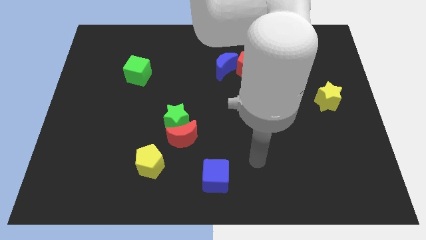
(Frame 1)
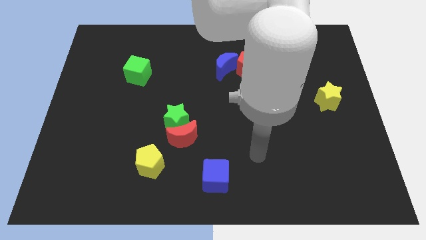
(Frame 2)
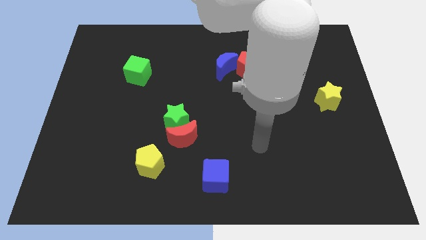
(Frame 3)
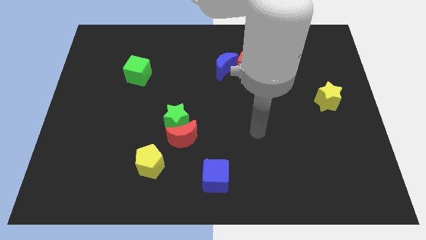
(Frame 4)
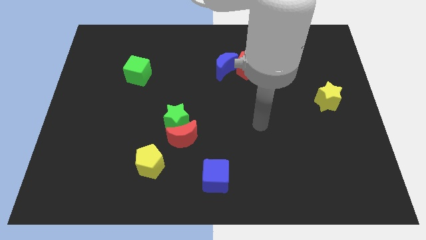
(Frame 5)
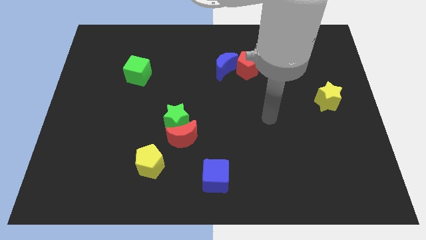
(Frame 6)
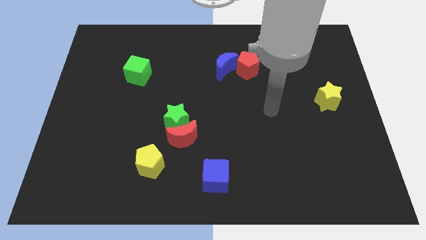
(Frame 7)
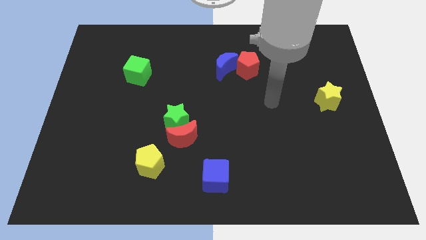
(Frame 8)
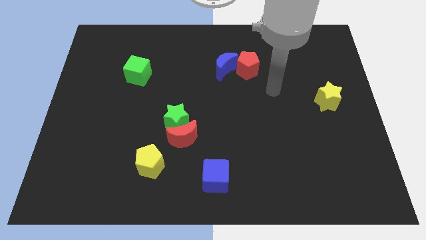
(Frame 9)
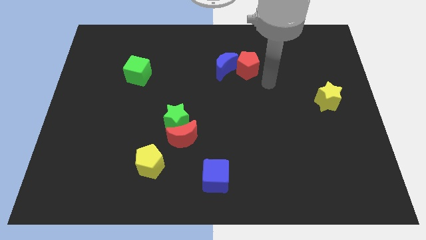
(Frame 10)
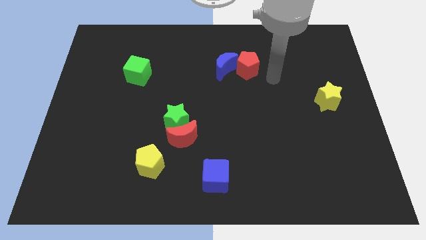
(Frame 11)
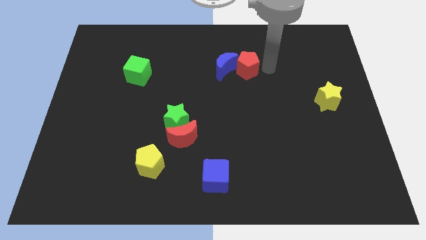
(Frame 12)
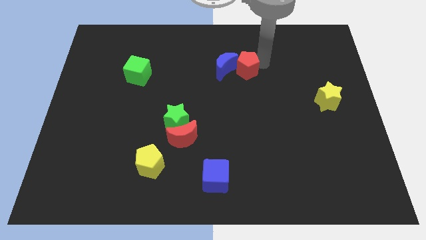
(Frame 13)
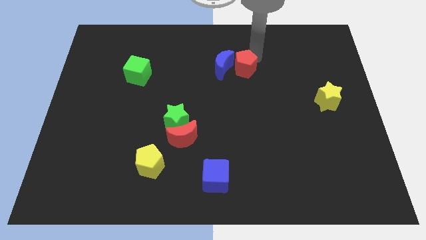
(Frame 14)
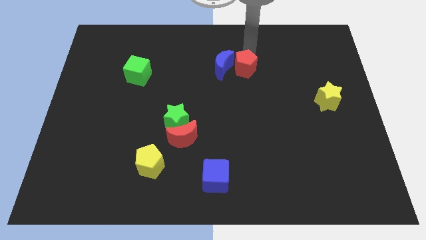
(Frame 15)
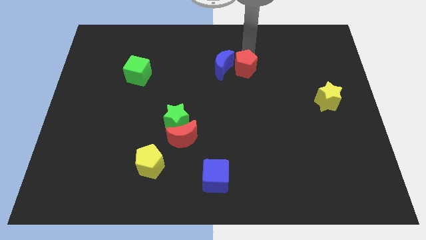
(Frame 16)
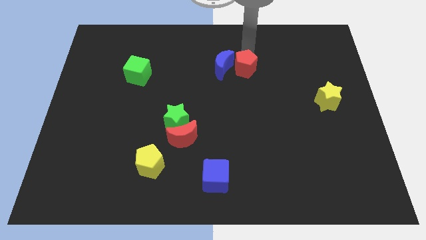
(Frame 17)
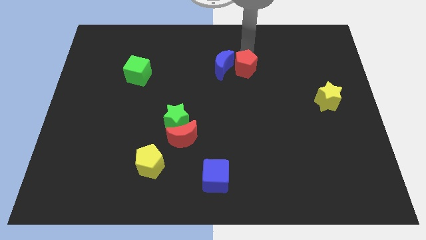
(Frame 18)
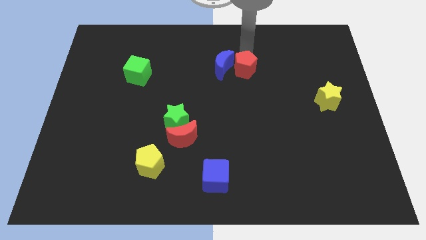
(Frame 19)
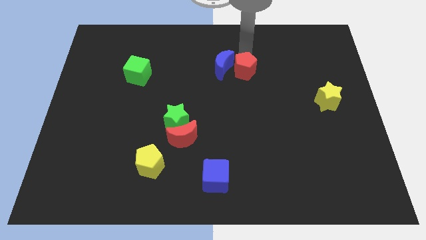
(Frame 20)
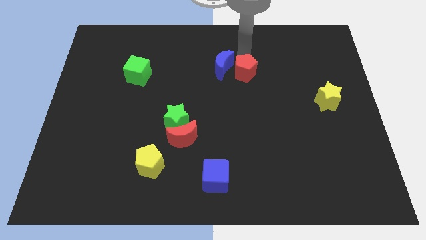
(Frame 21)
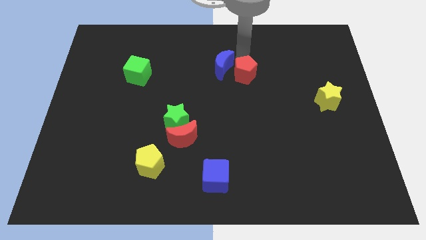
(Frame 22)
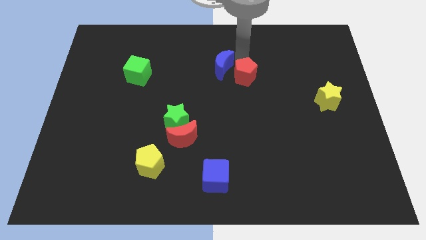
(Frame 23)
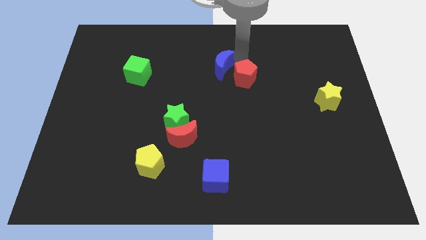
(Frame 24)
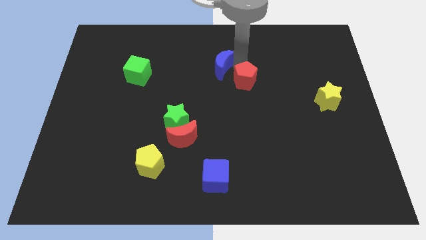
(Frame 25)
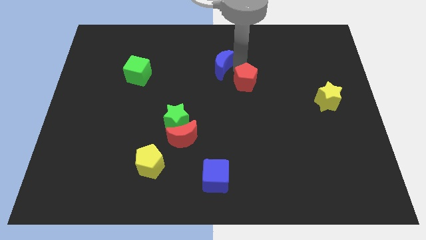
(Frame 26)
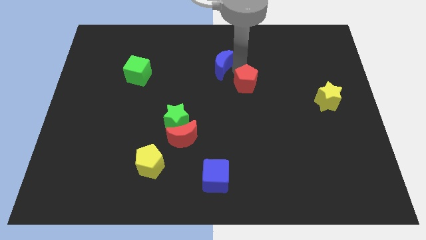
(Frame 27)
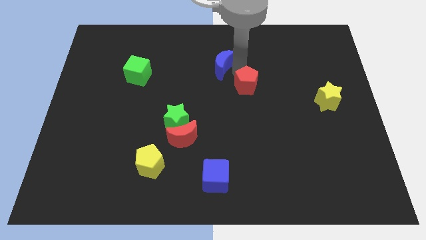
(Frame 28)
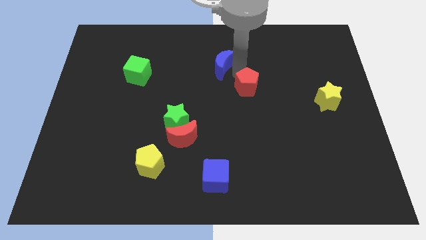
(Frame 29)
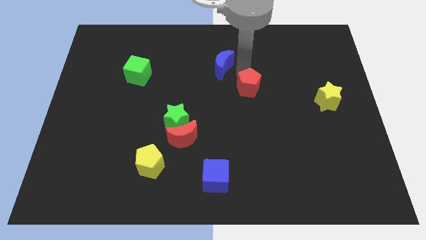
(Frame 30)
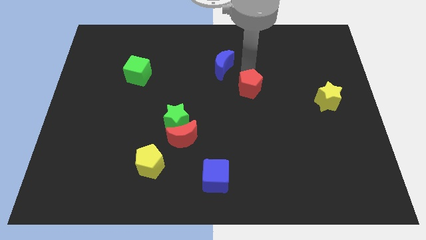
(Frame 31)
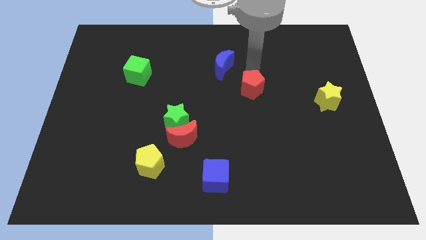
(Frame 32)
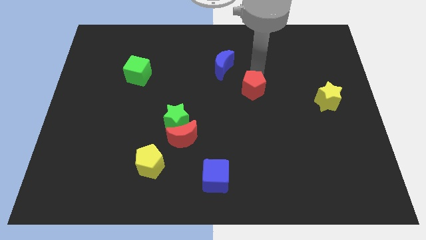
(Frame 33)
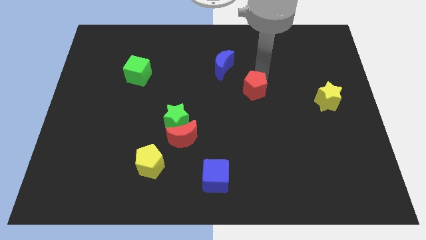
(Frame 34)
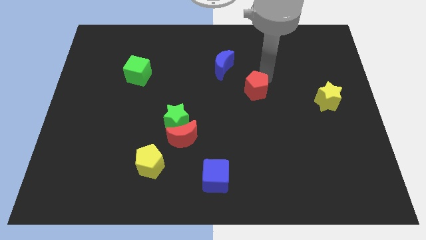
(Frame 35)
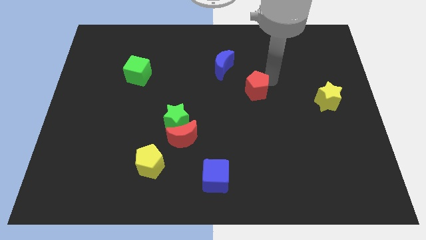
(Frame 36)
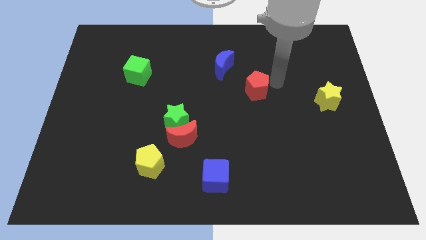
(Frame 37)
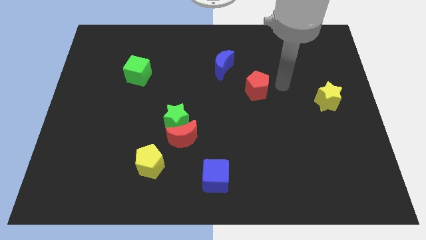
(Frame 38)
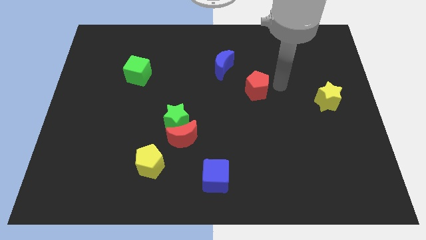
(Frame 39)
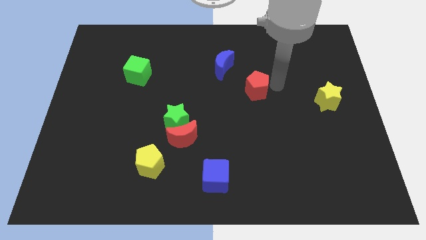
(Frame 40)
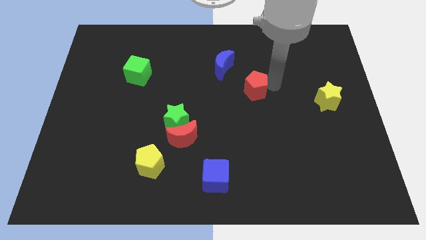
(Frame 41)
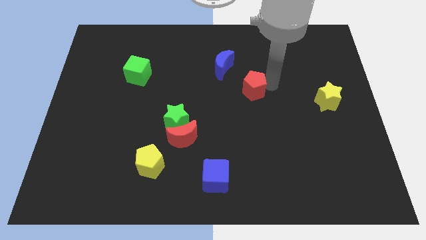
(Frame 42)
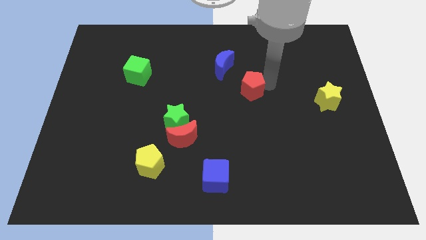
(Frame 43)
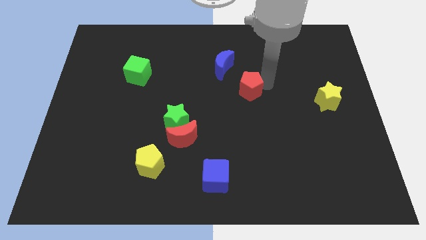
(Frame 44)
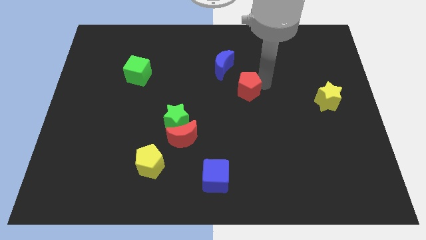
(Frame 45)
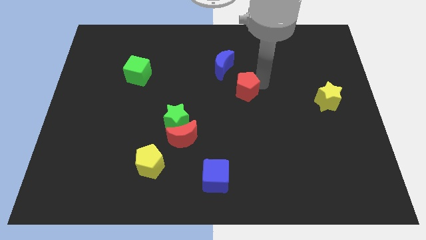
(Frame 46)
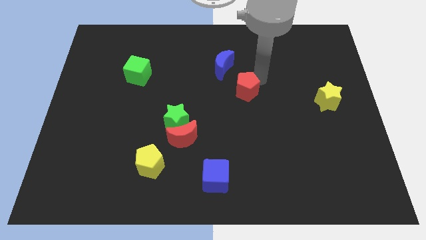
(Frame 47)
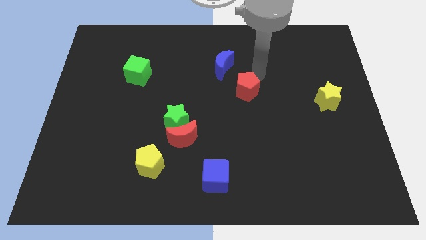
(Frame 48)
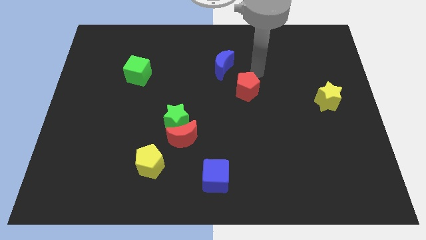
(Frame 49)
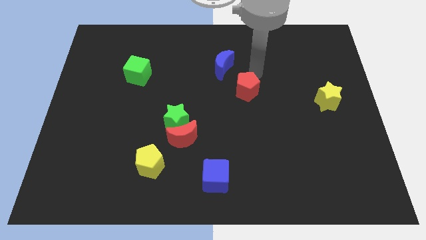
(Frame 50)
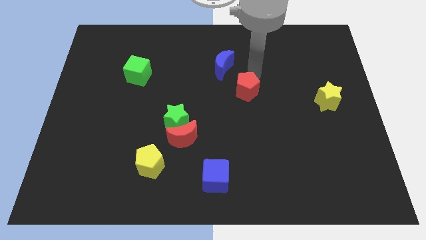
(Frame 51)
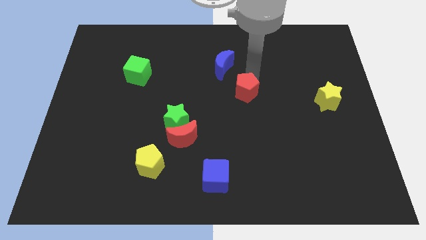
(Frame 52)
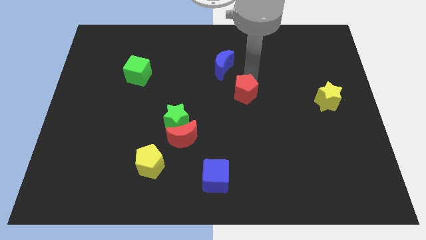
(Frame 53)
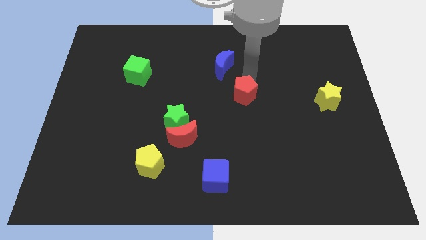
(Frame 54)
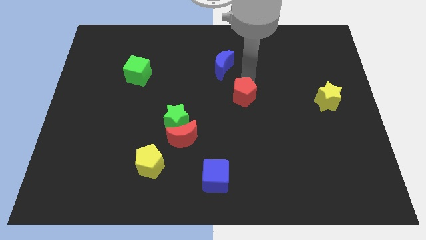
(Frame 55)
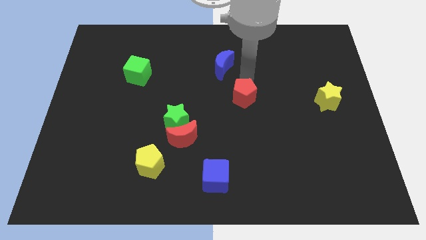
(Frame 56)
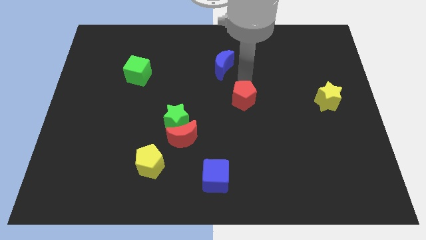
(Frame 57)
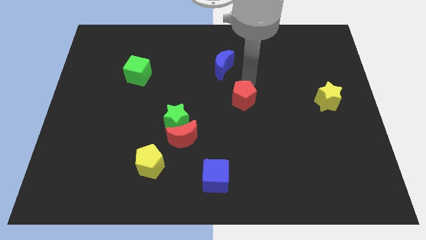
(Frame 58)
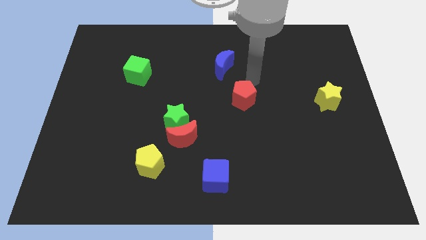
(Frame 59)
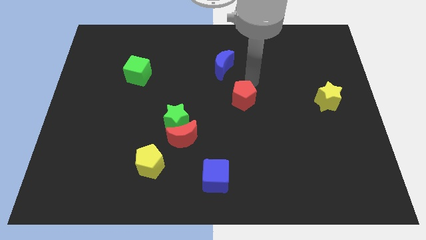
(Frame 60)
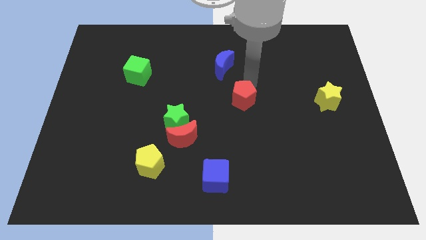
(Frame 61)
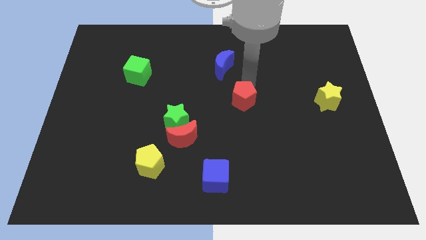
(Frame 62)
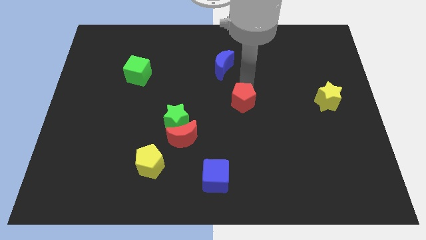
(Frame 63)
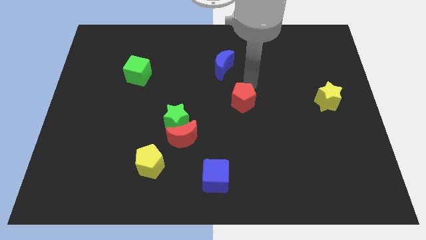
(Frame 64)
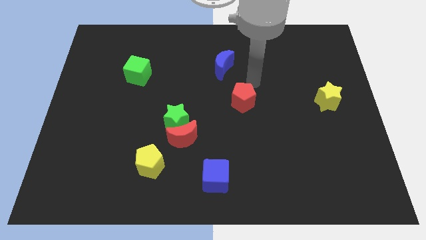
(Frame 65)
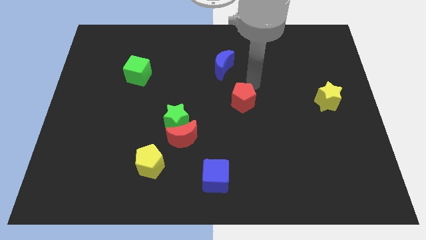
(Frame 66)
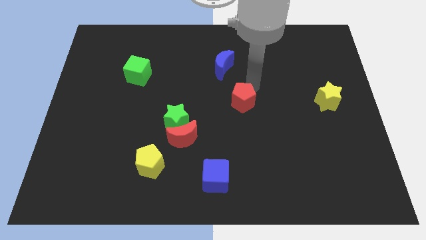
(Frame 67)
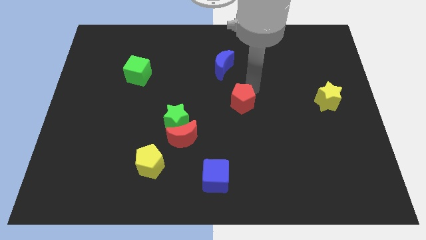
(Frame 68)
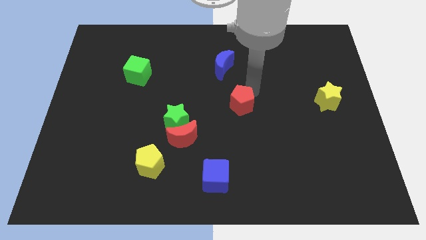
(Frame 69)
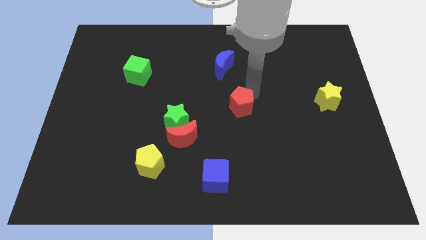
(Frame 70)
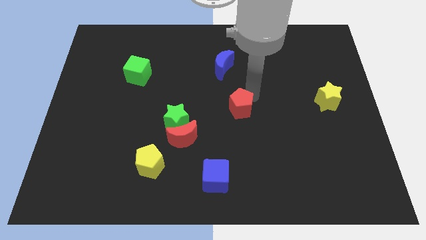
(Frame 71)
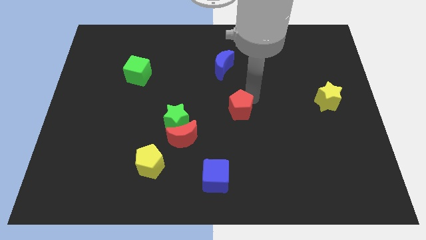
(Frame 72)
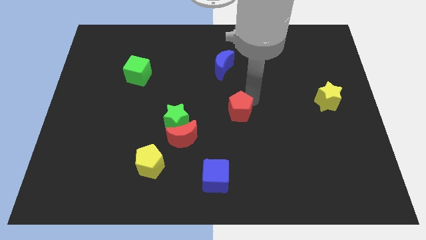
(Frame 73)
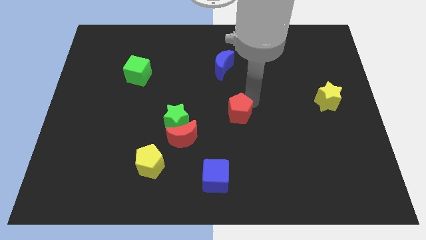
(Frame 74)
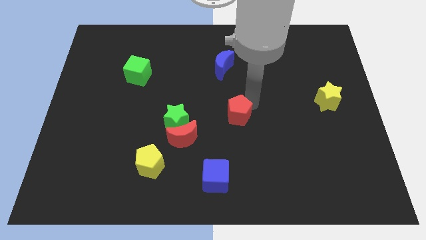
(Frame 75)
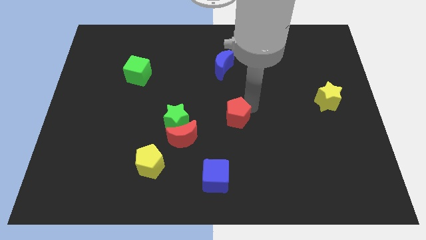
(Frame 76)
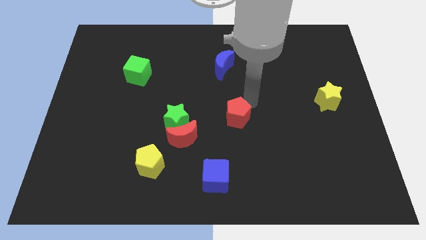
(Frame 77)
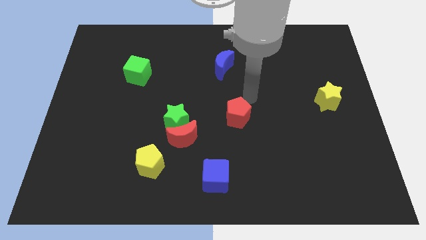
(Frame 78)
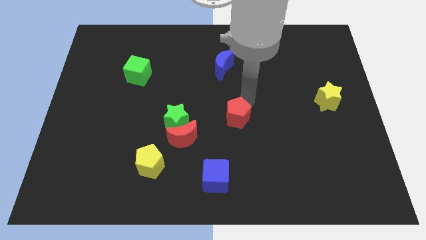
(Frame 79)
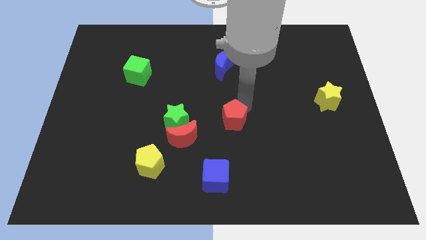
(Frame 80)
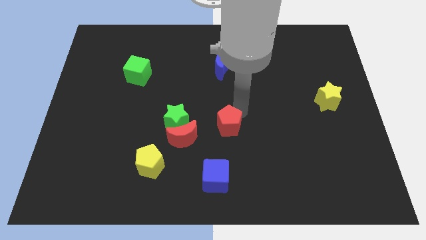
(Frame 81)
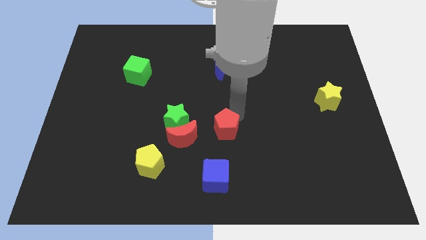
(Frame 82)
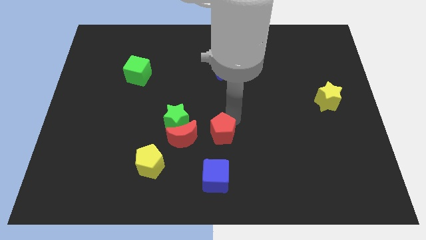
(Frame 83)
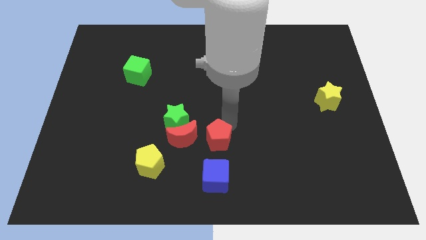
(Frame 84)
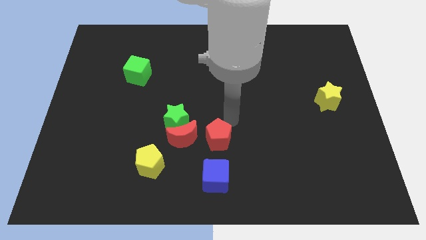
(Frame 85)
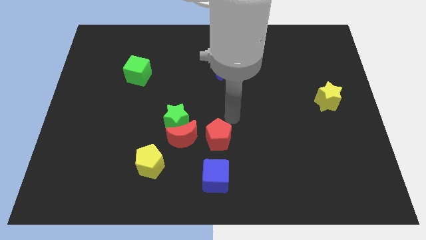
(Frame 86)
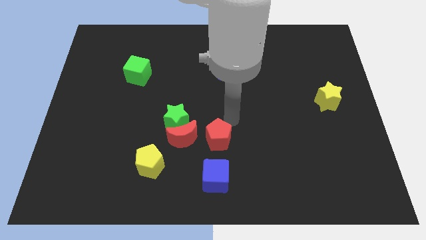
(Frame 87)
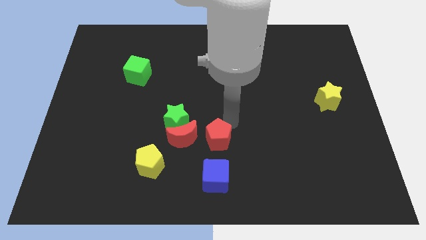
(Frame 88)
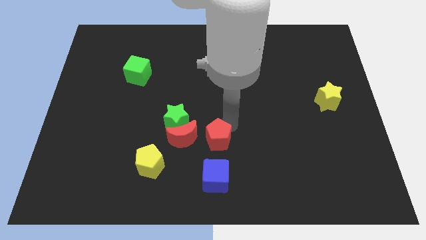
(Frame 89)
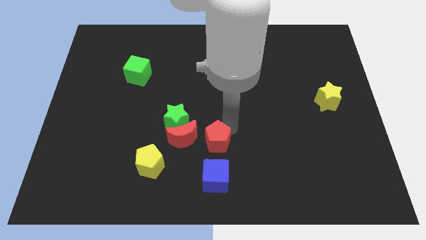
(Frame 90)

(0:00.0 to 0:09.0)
slide the red pentagon to the bottom right of the red moon
